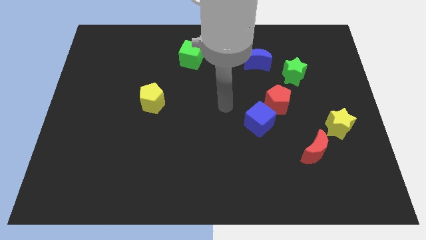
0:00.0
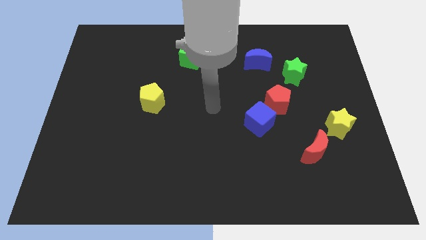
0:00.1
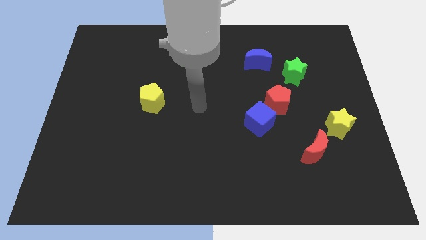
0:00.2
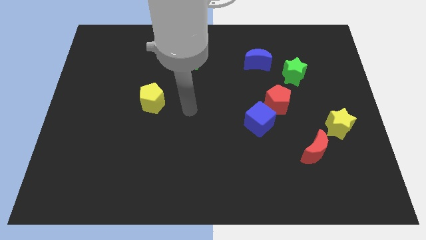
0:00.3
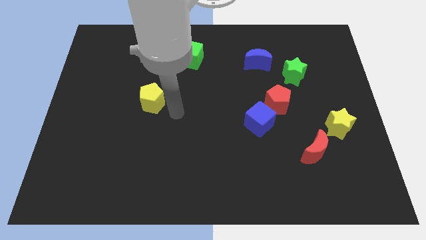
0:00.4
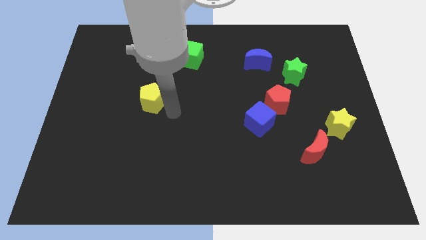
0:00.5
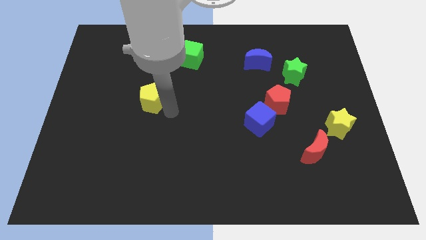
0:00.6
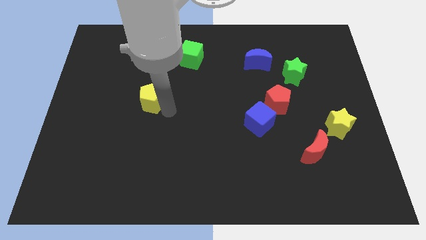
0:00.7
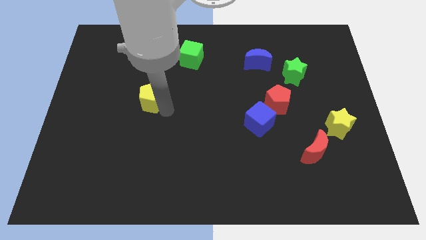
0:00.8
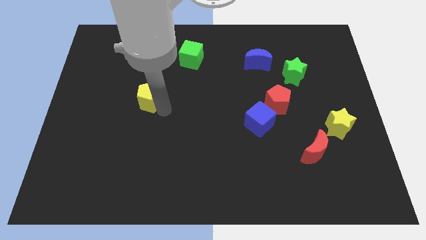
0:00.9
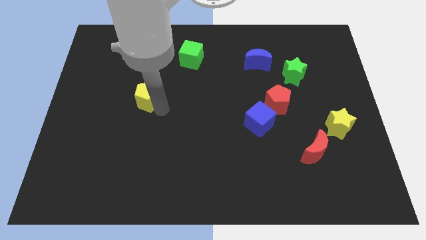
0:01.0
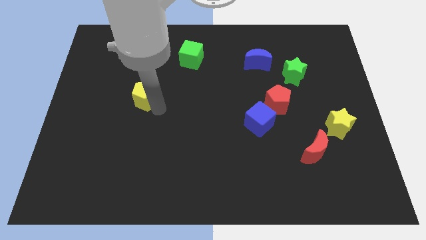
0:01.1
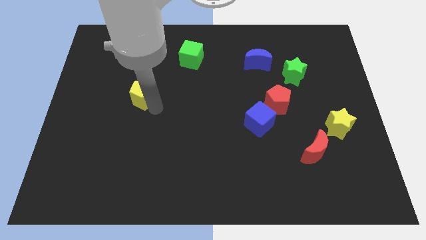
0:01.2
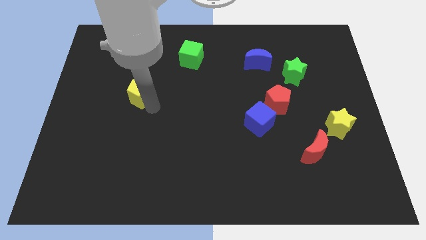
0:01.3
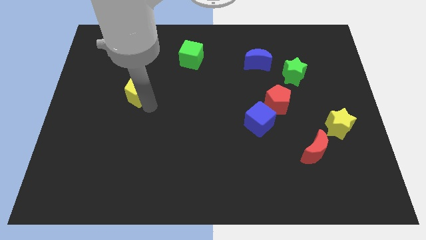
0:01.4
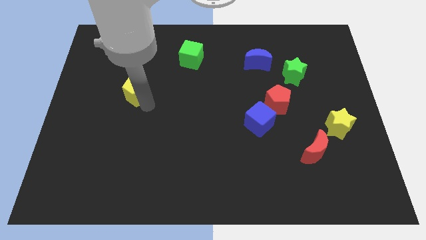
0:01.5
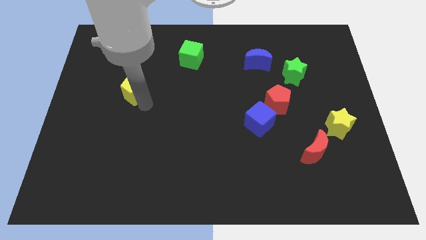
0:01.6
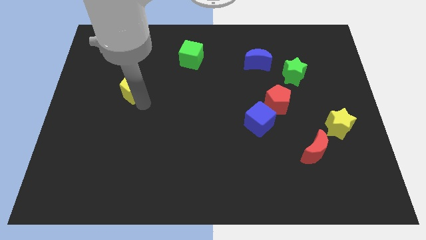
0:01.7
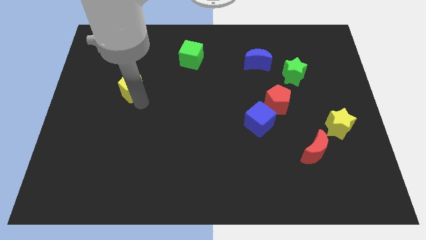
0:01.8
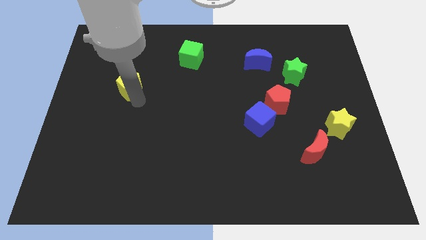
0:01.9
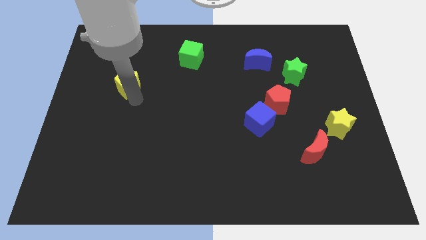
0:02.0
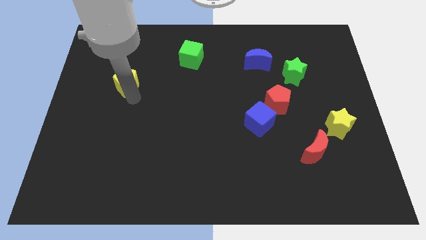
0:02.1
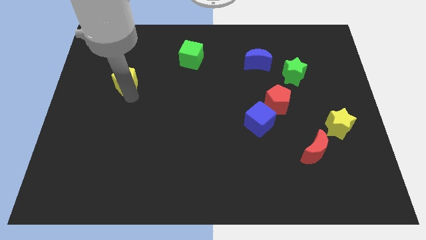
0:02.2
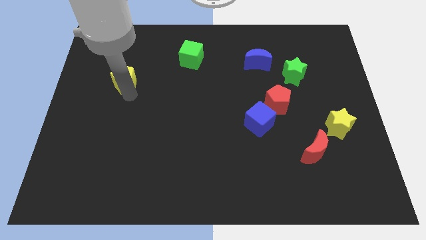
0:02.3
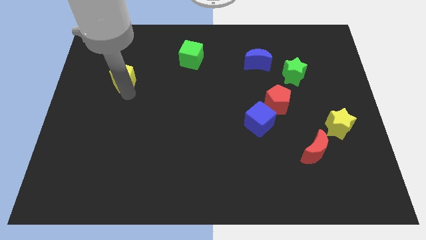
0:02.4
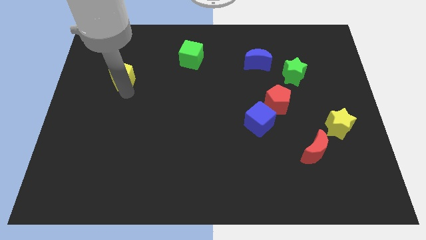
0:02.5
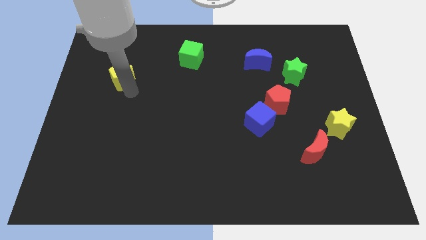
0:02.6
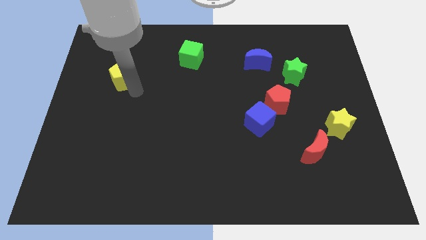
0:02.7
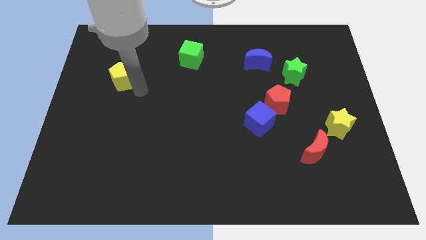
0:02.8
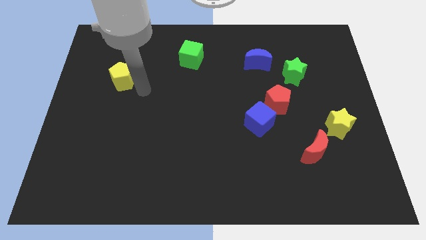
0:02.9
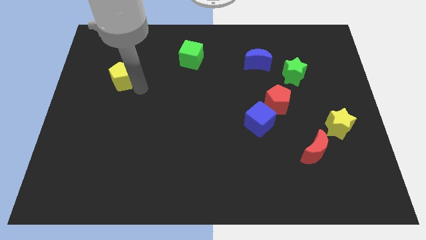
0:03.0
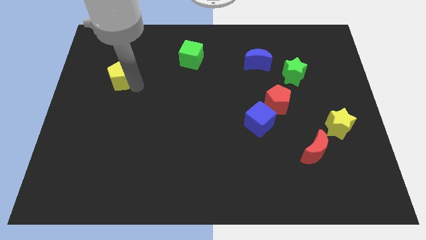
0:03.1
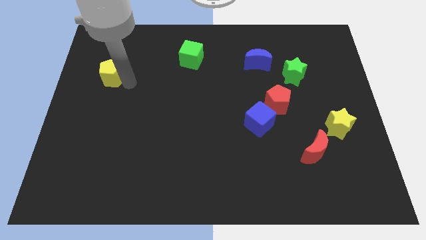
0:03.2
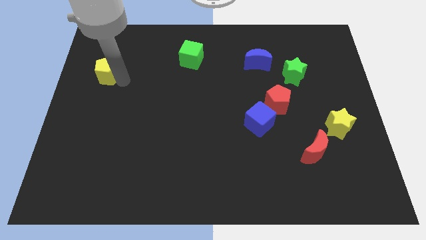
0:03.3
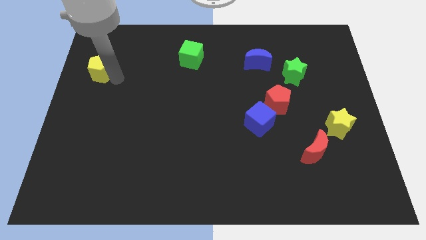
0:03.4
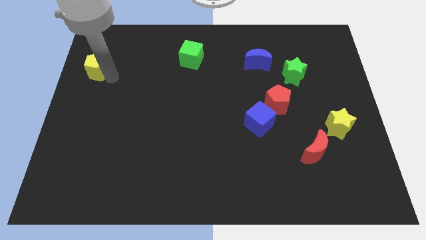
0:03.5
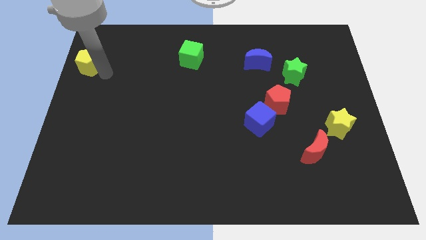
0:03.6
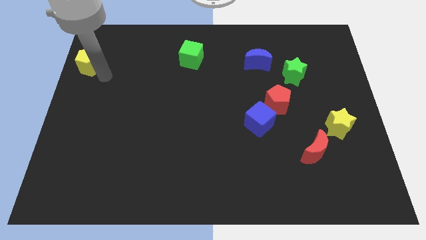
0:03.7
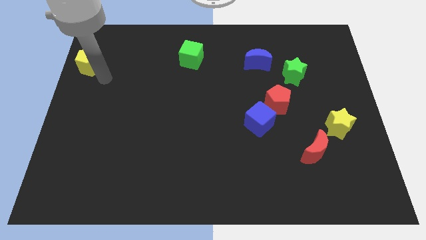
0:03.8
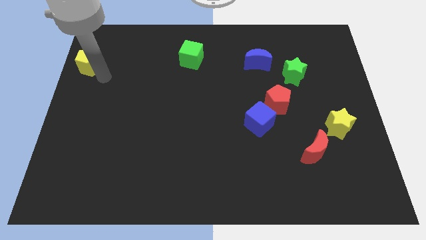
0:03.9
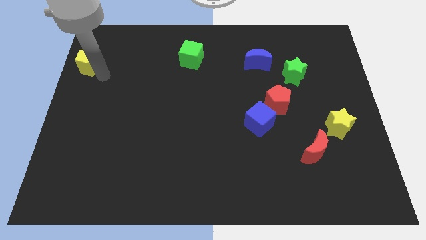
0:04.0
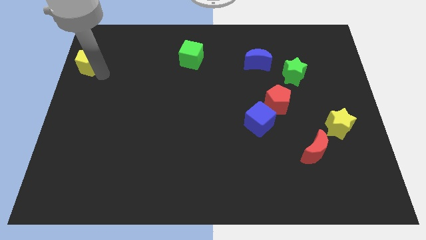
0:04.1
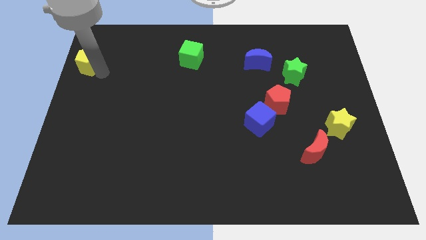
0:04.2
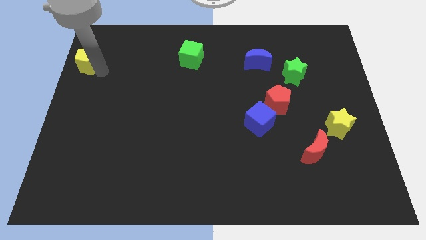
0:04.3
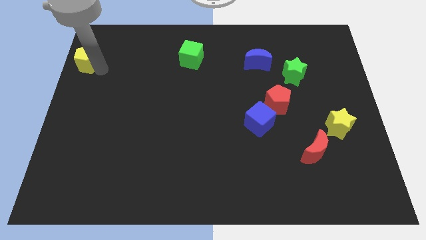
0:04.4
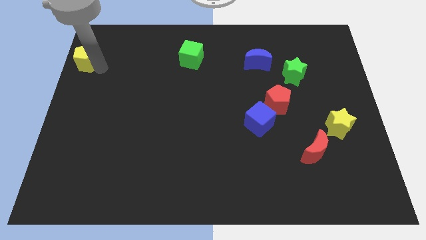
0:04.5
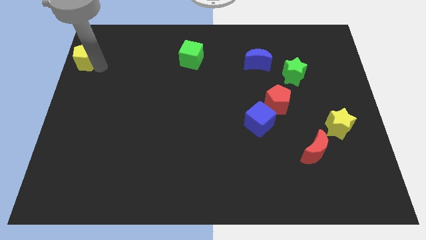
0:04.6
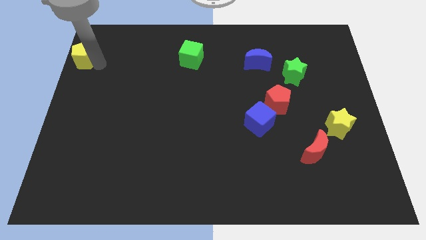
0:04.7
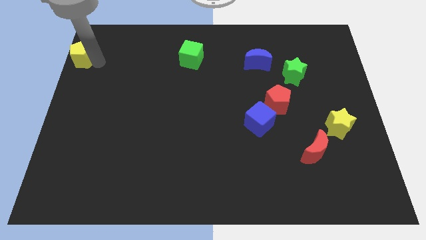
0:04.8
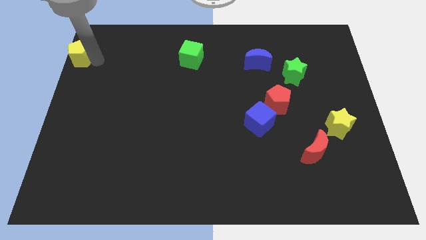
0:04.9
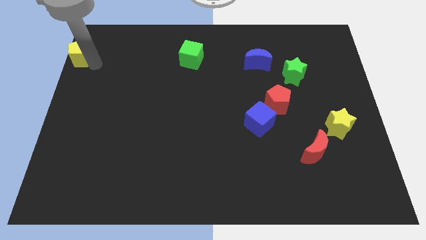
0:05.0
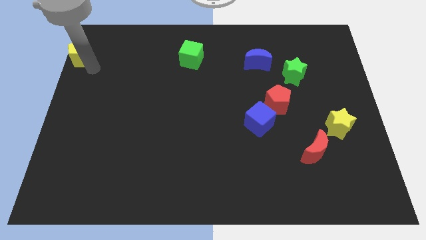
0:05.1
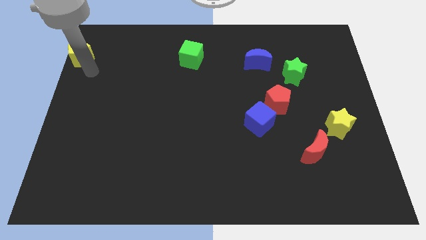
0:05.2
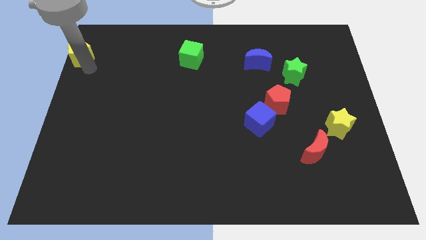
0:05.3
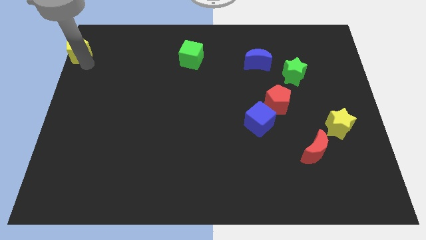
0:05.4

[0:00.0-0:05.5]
put the yellow pentagon to the top left of the board
